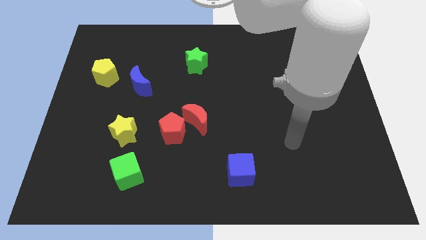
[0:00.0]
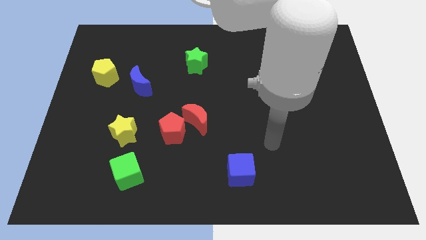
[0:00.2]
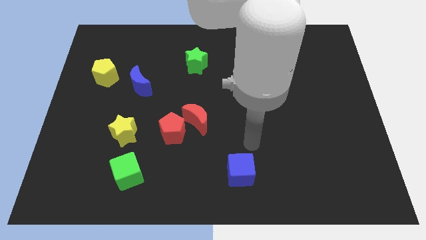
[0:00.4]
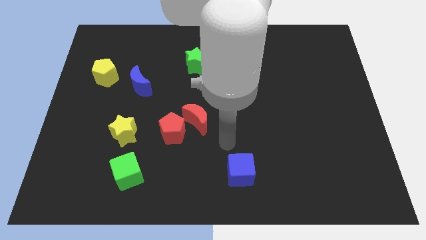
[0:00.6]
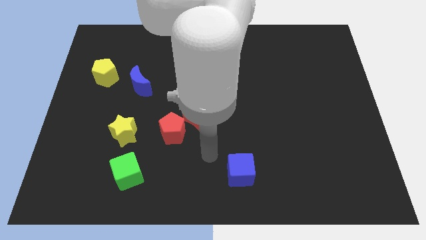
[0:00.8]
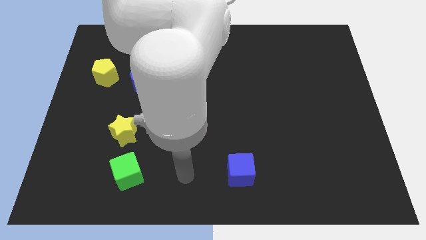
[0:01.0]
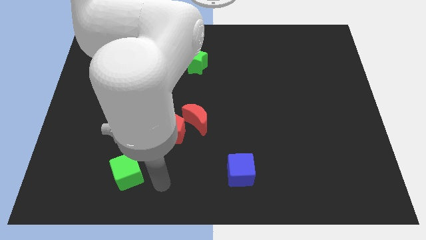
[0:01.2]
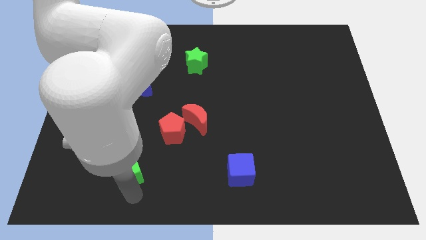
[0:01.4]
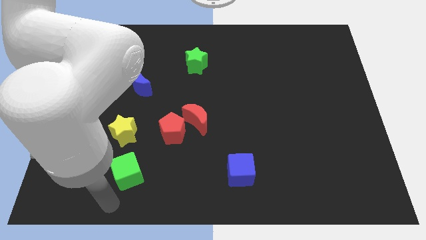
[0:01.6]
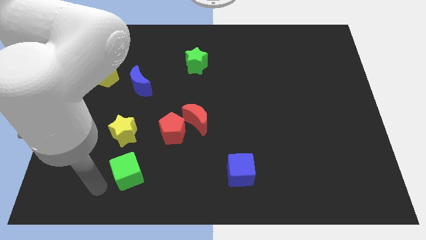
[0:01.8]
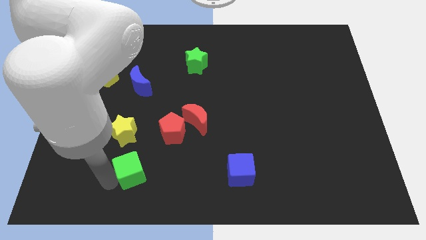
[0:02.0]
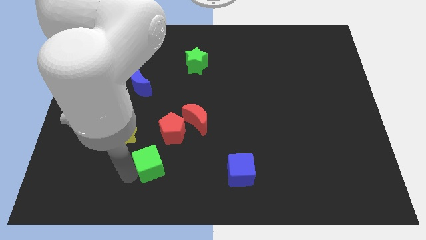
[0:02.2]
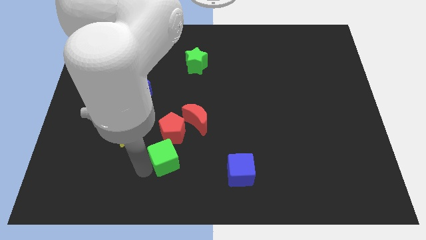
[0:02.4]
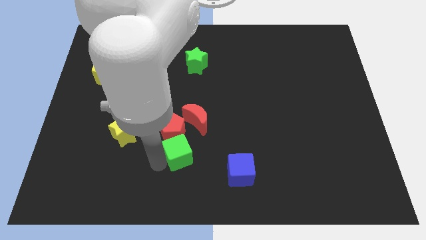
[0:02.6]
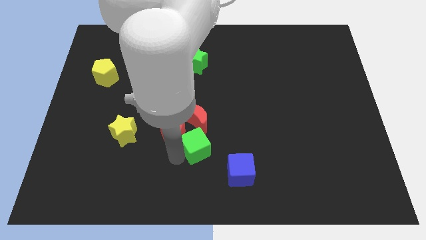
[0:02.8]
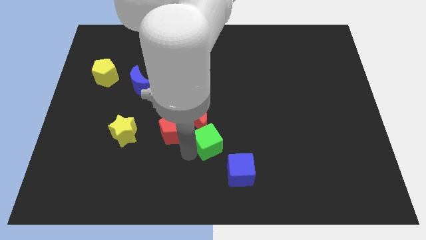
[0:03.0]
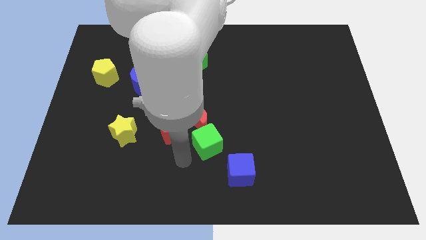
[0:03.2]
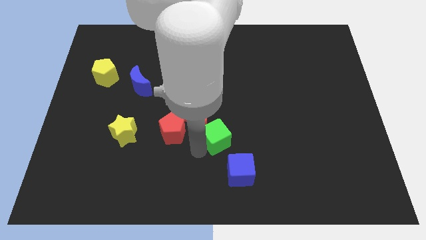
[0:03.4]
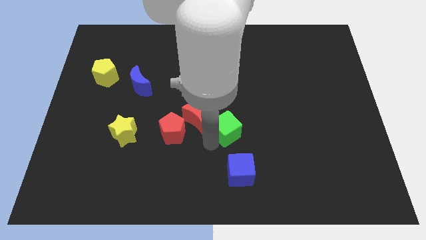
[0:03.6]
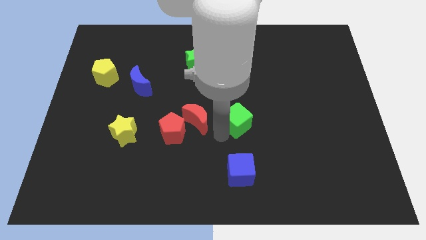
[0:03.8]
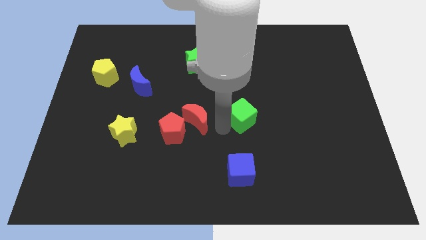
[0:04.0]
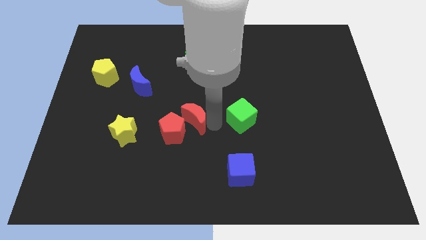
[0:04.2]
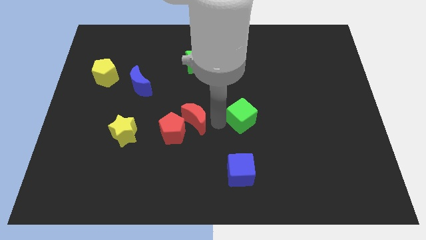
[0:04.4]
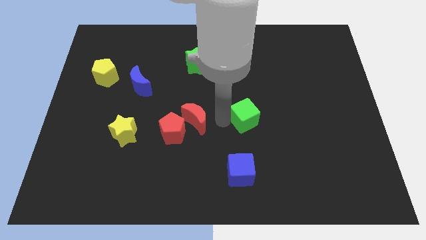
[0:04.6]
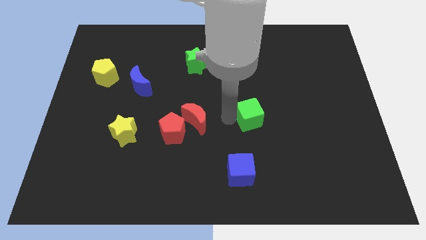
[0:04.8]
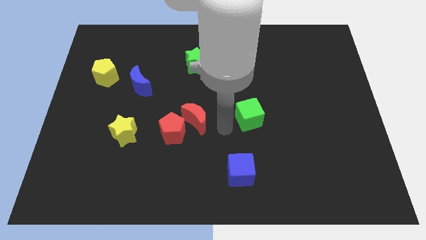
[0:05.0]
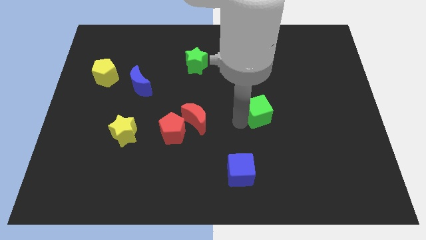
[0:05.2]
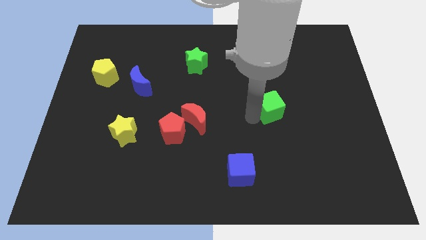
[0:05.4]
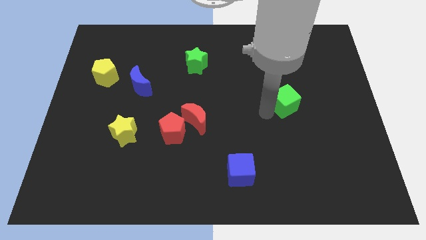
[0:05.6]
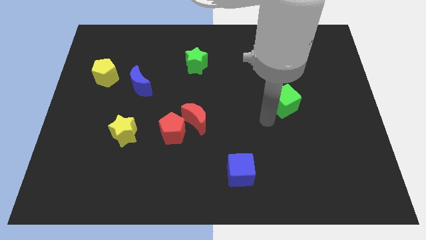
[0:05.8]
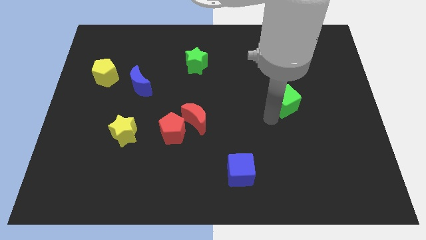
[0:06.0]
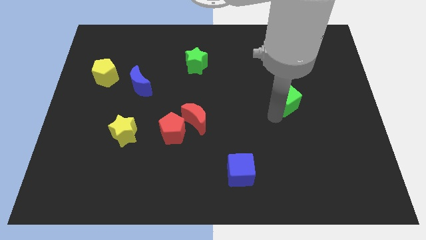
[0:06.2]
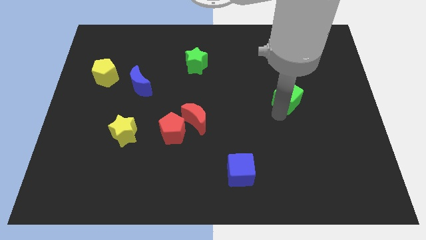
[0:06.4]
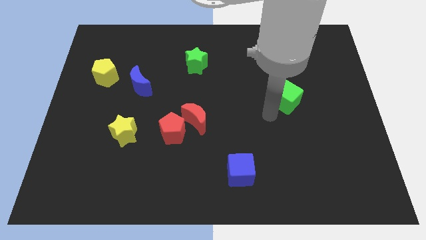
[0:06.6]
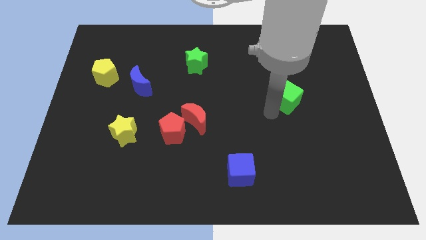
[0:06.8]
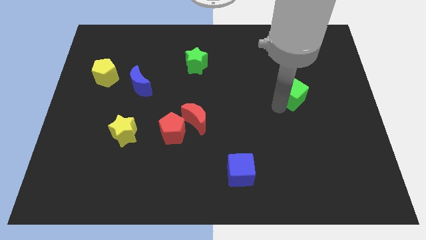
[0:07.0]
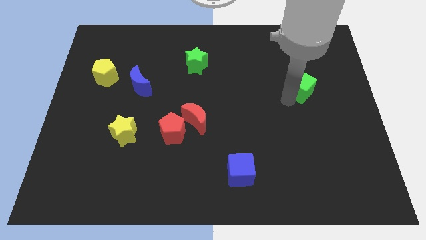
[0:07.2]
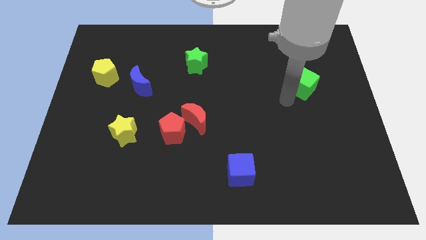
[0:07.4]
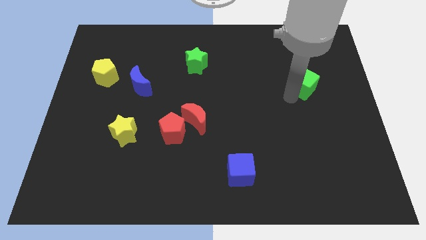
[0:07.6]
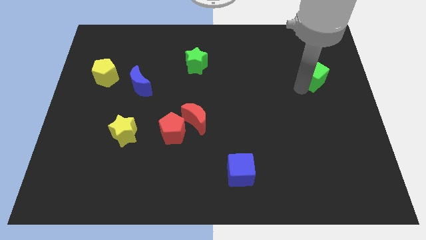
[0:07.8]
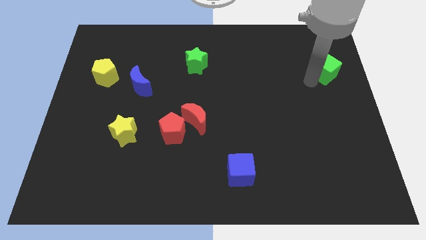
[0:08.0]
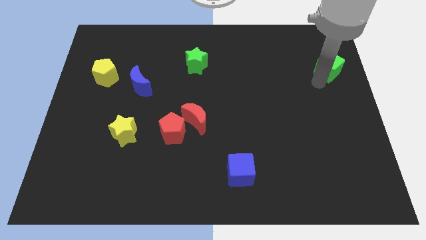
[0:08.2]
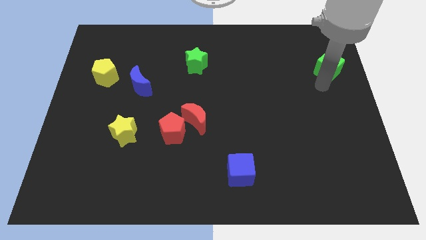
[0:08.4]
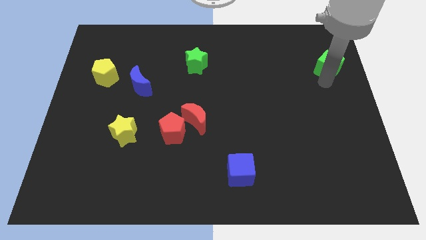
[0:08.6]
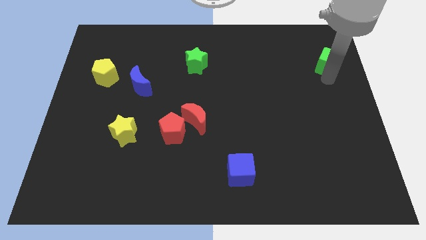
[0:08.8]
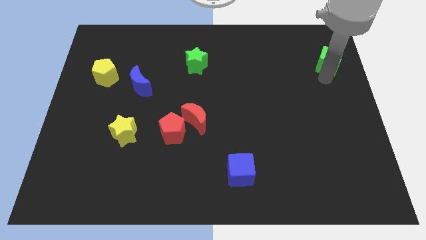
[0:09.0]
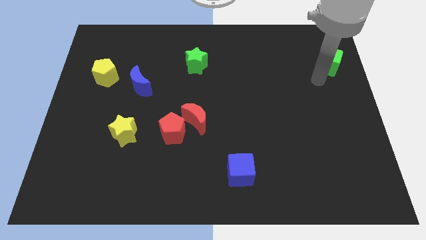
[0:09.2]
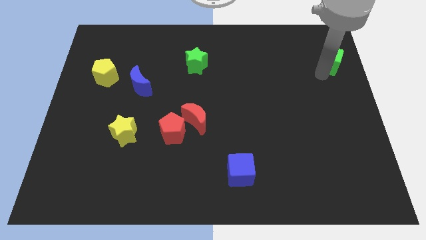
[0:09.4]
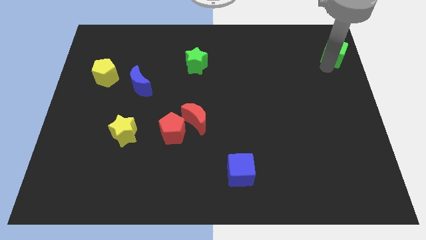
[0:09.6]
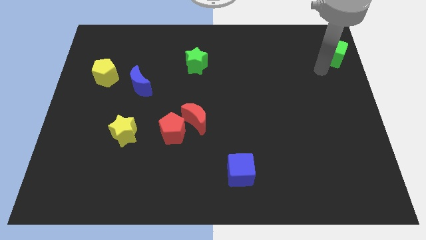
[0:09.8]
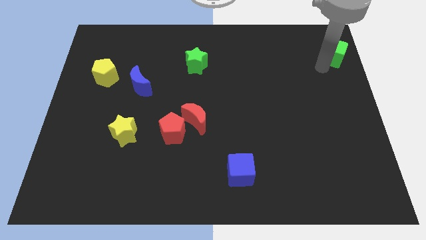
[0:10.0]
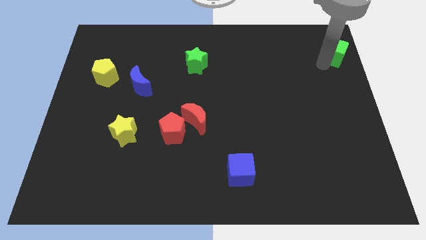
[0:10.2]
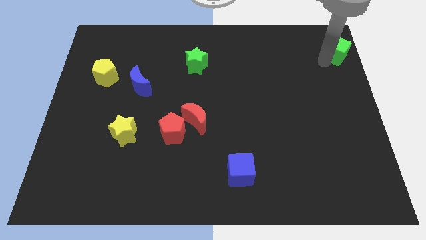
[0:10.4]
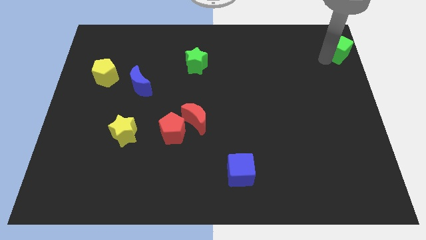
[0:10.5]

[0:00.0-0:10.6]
move the green cube to the upper right corner

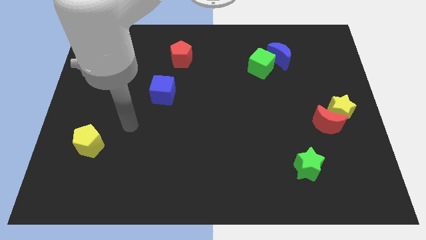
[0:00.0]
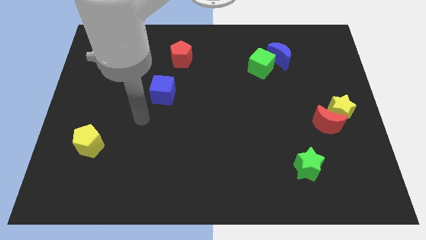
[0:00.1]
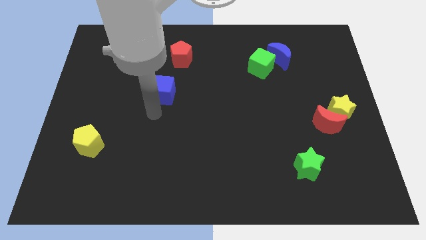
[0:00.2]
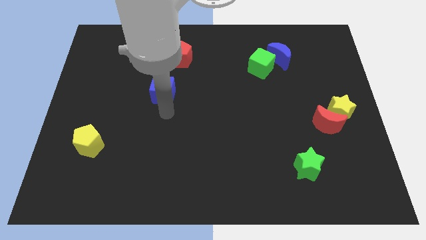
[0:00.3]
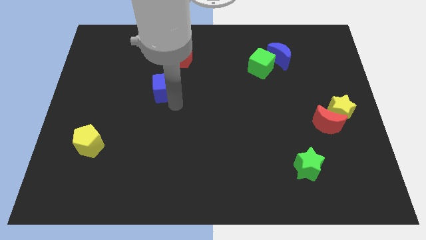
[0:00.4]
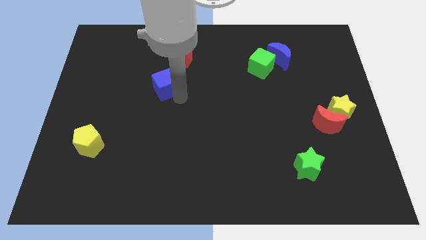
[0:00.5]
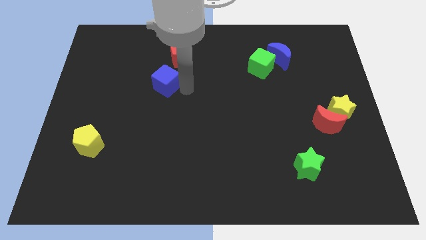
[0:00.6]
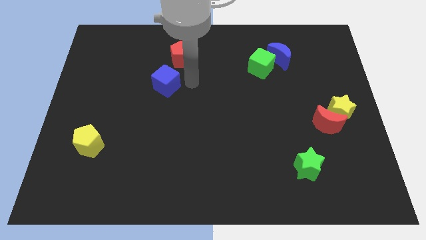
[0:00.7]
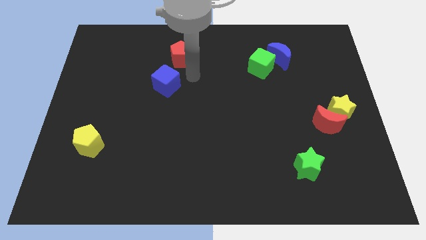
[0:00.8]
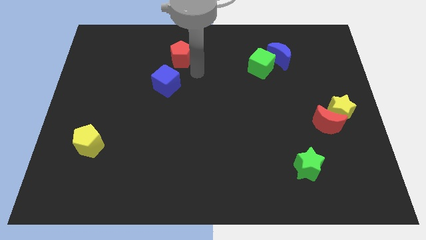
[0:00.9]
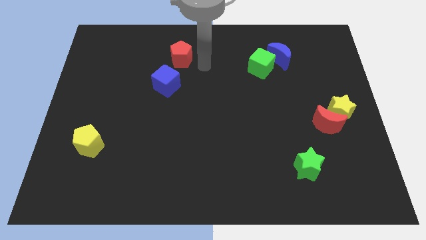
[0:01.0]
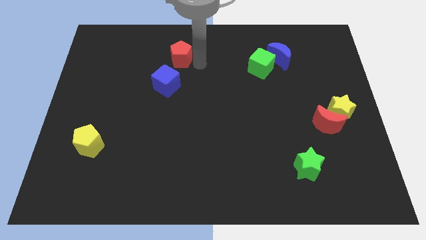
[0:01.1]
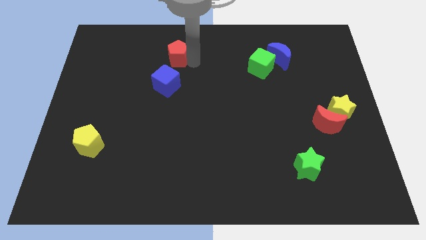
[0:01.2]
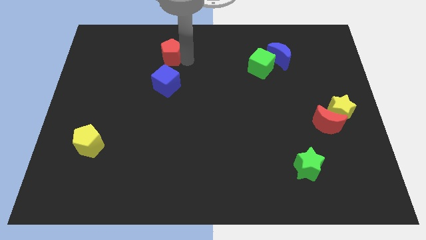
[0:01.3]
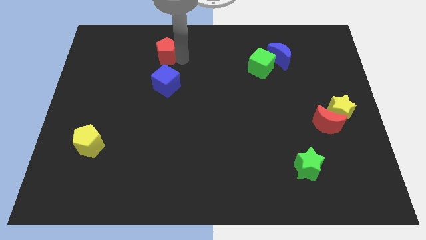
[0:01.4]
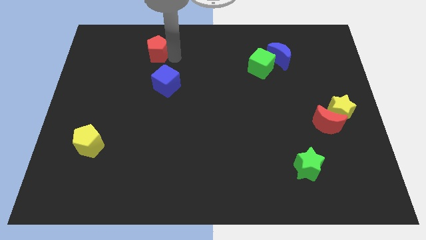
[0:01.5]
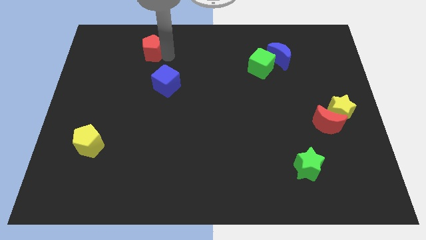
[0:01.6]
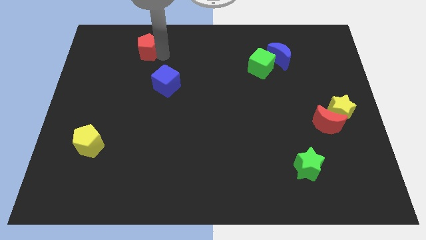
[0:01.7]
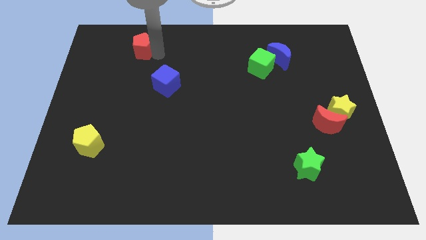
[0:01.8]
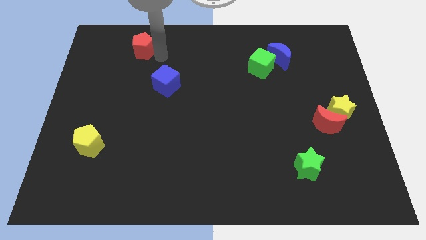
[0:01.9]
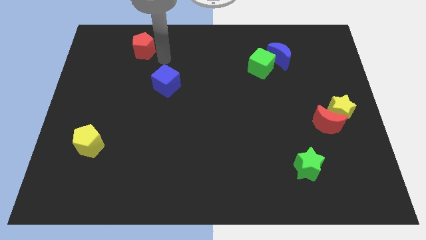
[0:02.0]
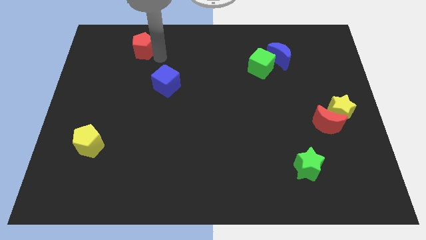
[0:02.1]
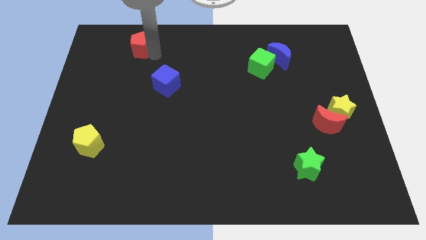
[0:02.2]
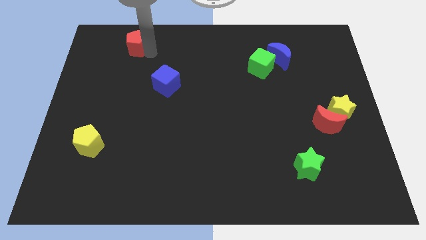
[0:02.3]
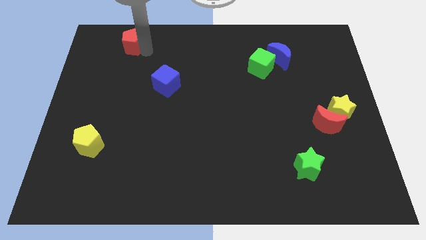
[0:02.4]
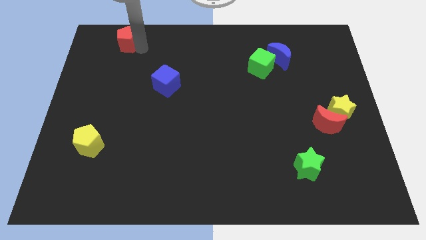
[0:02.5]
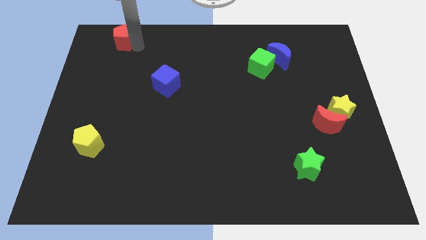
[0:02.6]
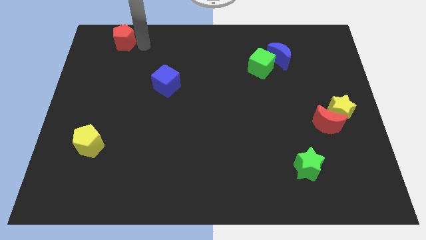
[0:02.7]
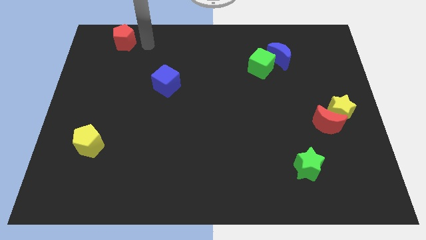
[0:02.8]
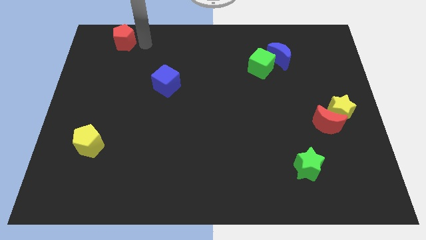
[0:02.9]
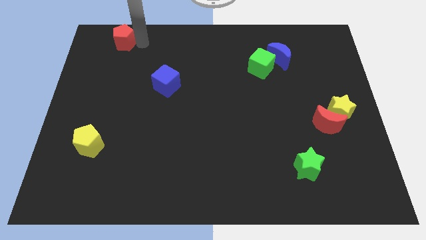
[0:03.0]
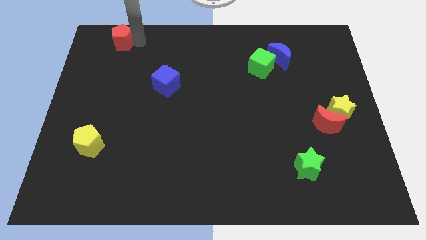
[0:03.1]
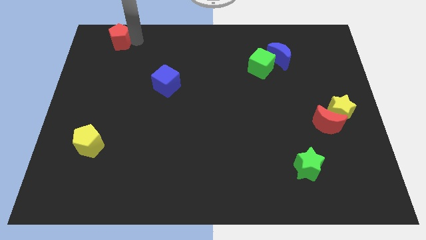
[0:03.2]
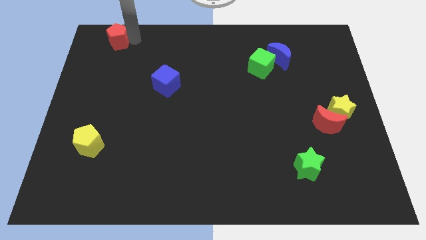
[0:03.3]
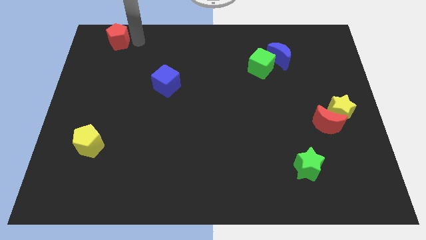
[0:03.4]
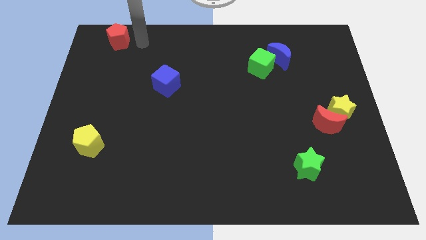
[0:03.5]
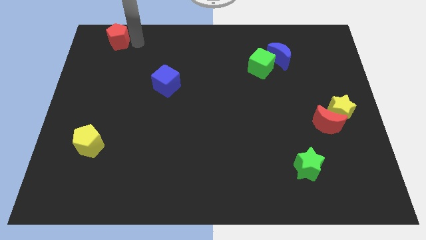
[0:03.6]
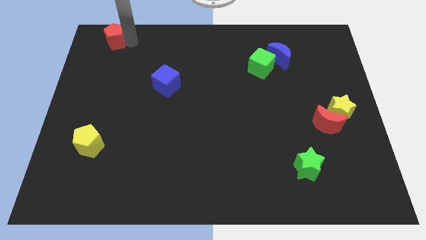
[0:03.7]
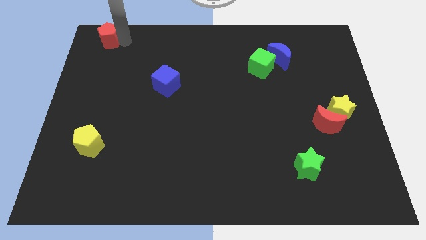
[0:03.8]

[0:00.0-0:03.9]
push the red pentagon to the top left
